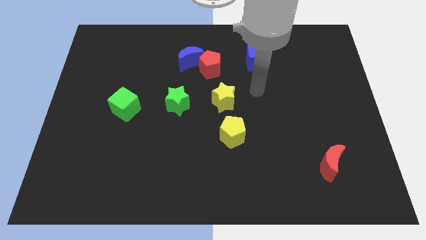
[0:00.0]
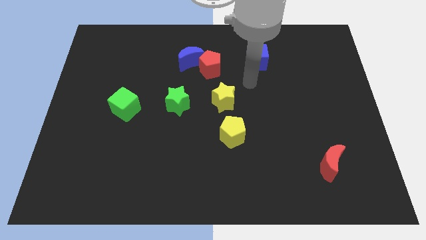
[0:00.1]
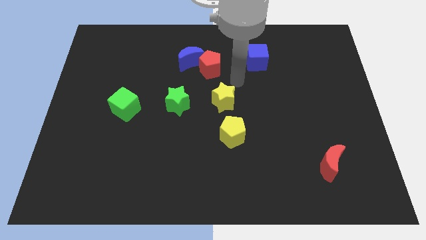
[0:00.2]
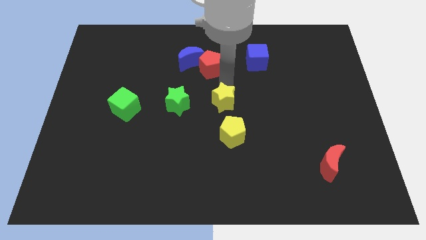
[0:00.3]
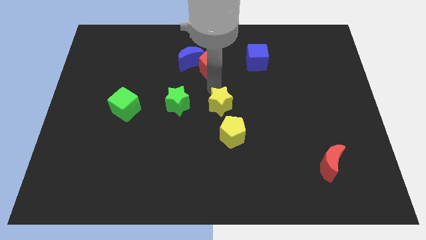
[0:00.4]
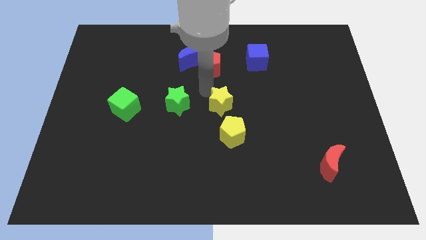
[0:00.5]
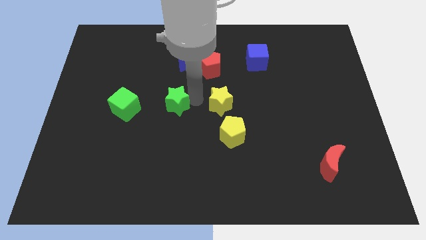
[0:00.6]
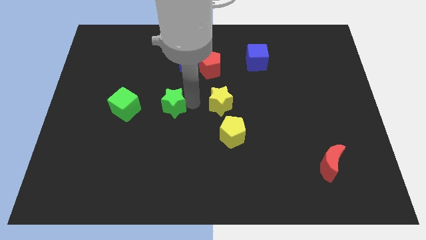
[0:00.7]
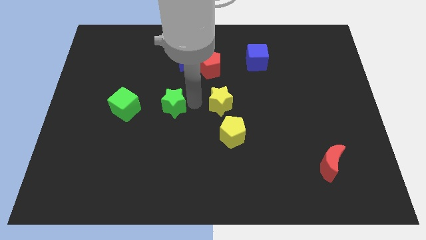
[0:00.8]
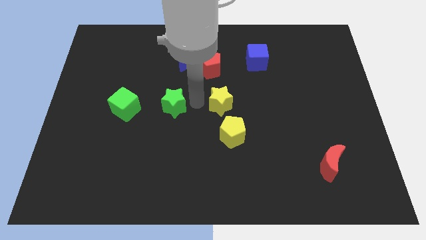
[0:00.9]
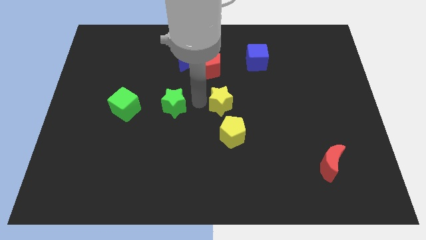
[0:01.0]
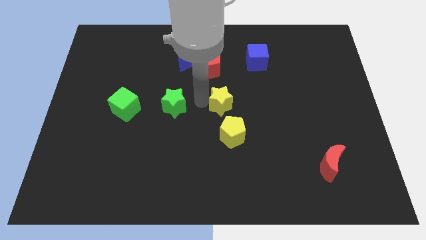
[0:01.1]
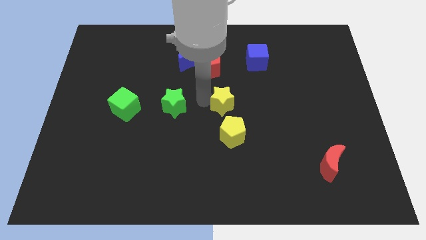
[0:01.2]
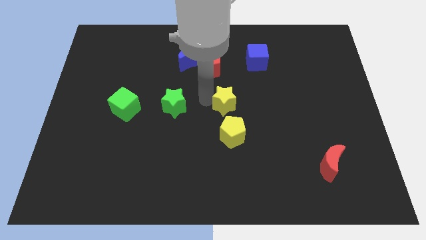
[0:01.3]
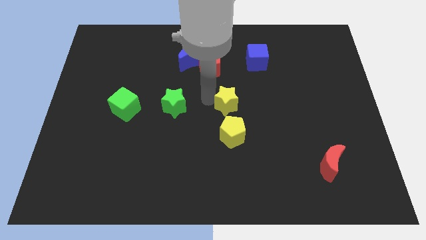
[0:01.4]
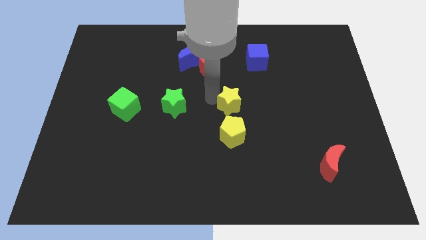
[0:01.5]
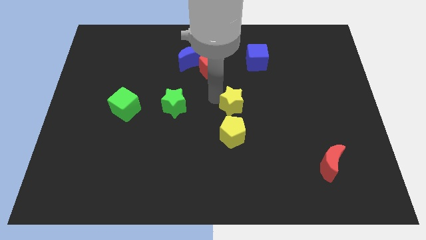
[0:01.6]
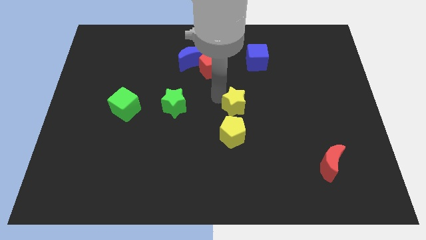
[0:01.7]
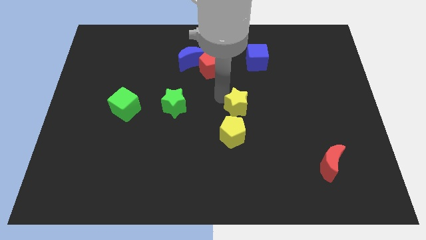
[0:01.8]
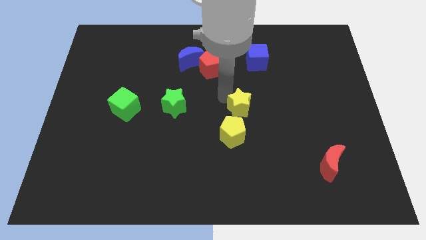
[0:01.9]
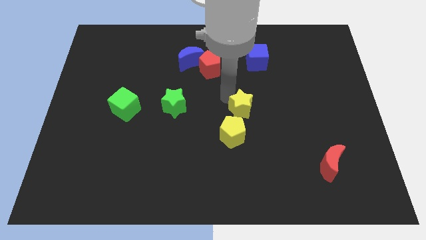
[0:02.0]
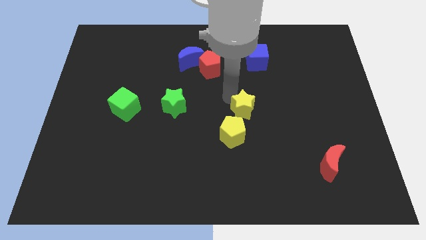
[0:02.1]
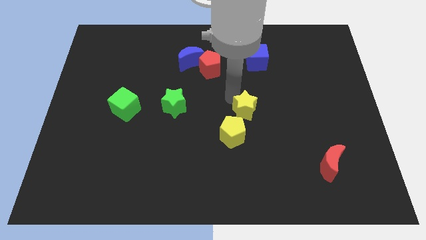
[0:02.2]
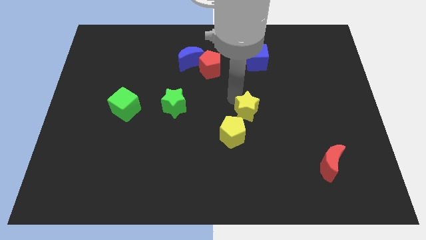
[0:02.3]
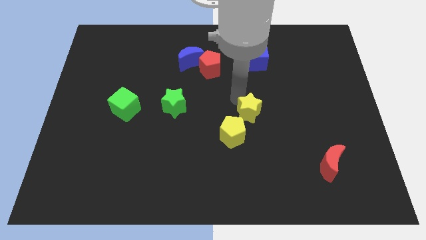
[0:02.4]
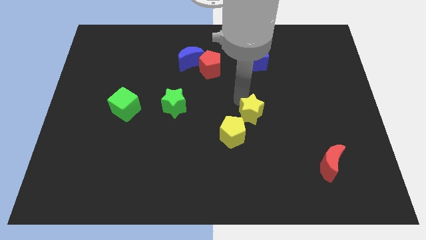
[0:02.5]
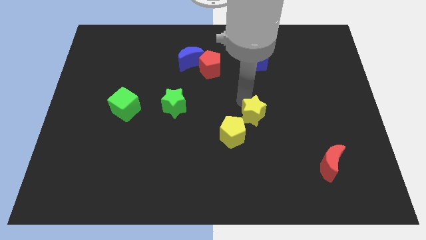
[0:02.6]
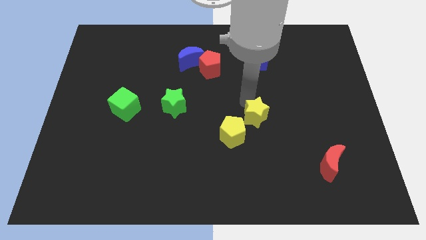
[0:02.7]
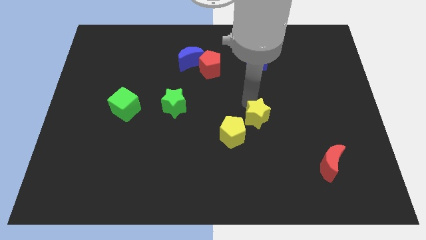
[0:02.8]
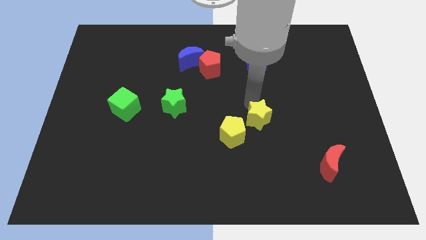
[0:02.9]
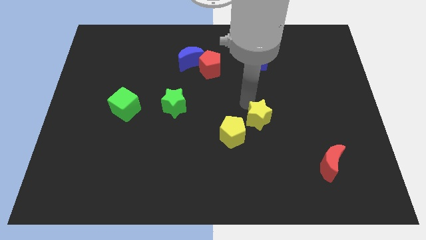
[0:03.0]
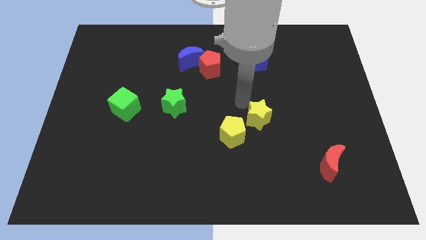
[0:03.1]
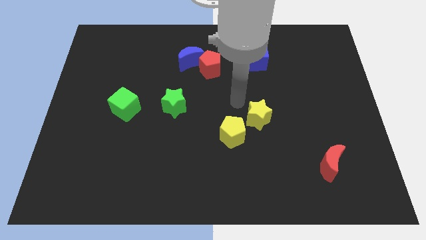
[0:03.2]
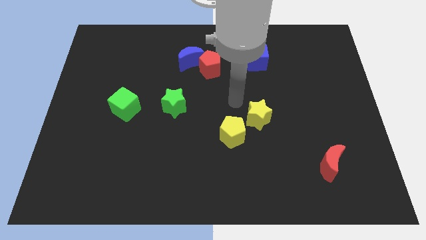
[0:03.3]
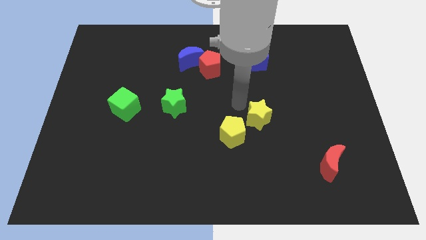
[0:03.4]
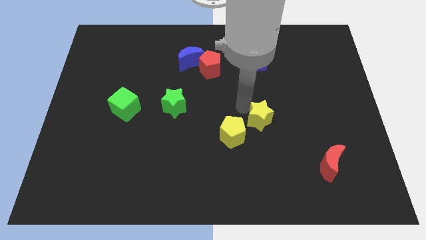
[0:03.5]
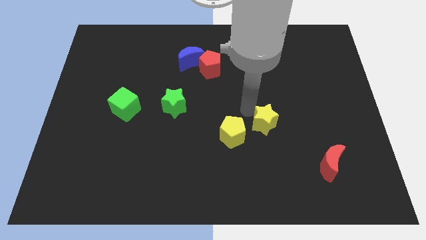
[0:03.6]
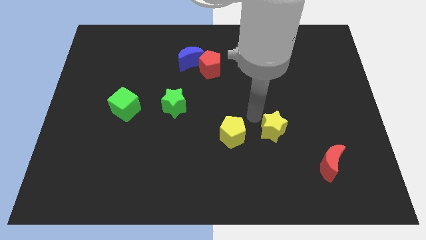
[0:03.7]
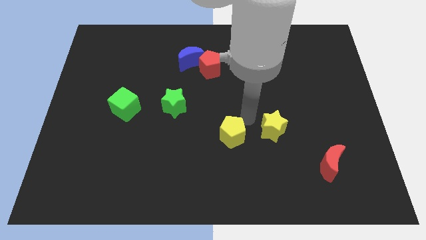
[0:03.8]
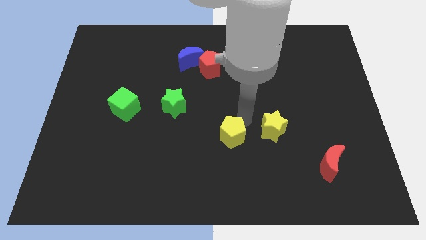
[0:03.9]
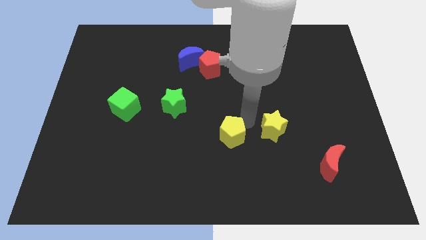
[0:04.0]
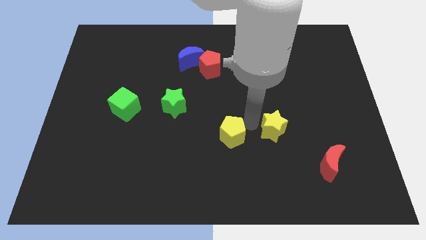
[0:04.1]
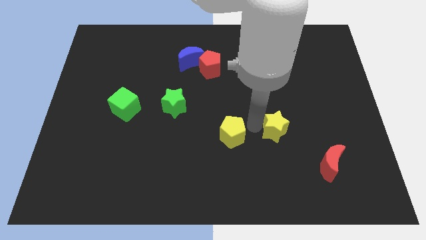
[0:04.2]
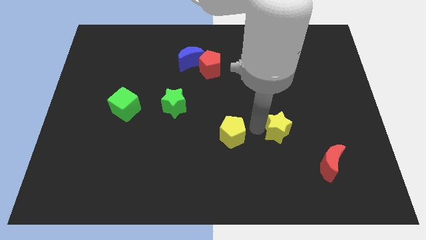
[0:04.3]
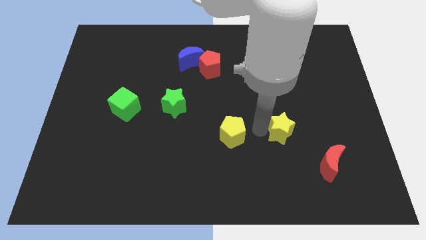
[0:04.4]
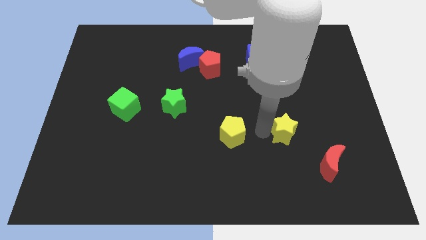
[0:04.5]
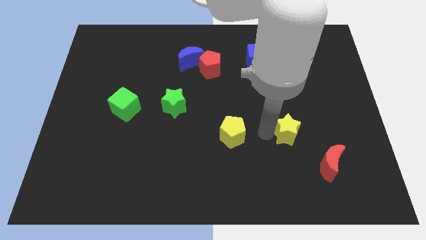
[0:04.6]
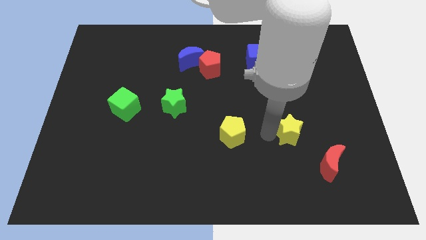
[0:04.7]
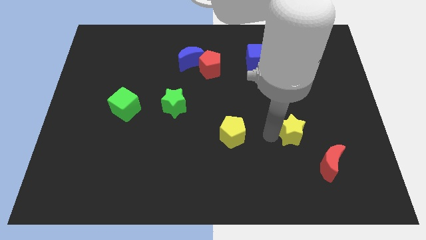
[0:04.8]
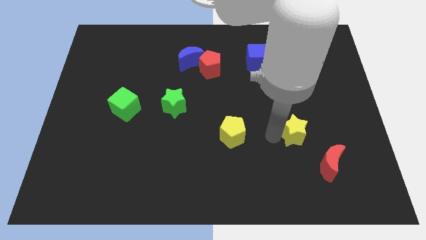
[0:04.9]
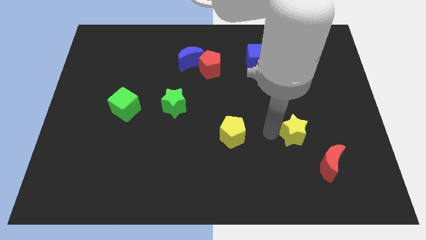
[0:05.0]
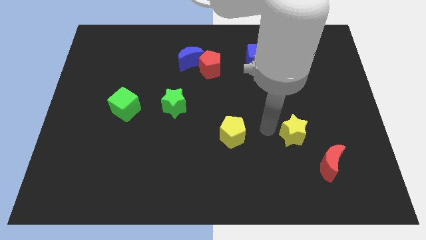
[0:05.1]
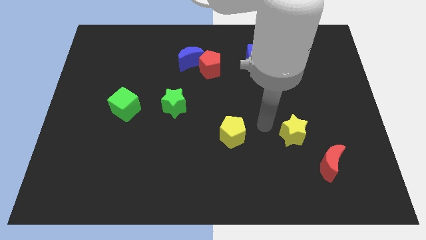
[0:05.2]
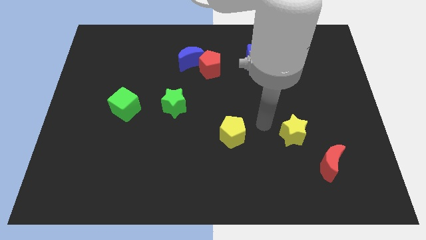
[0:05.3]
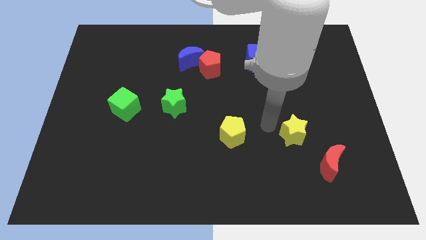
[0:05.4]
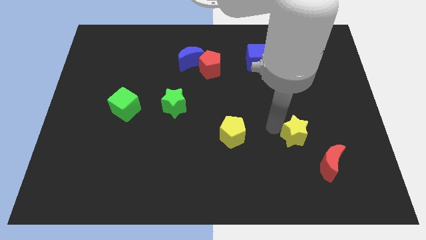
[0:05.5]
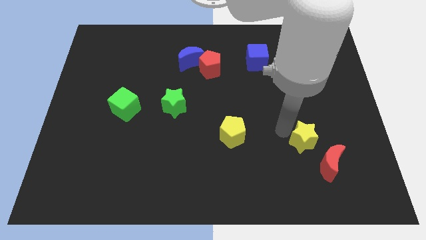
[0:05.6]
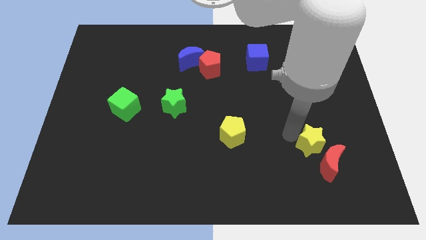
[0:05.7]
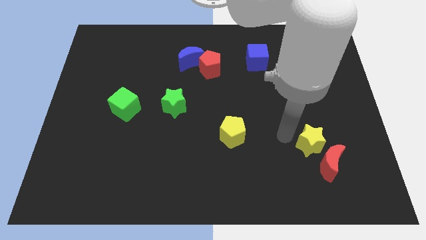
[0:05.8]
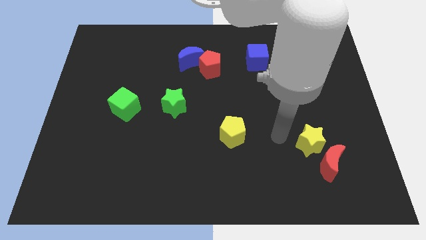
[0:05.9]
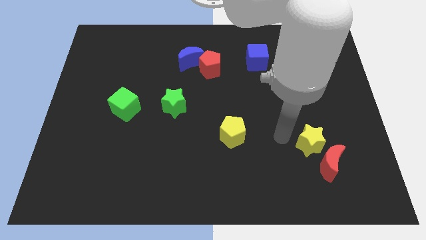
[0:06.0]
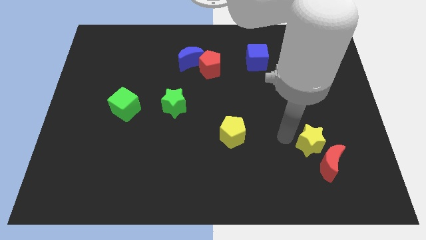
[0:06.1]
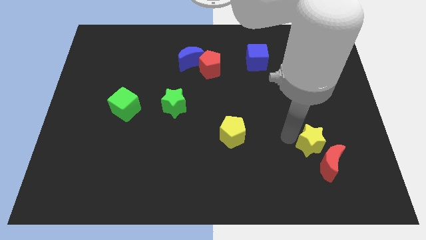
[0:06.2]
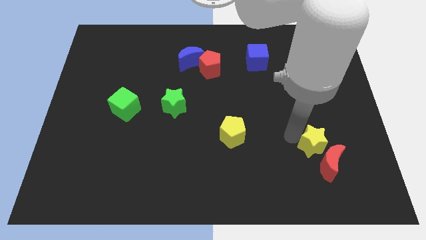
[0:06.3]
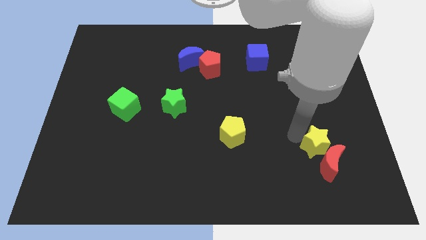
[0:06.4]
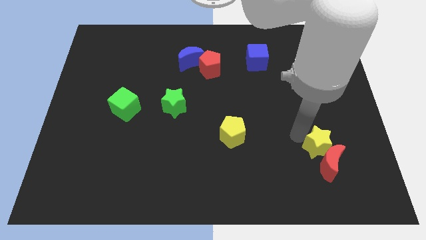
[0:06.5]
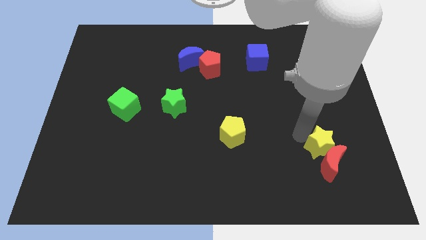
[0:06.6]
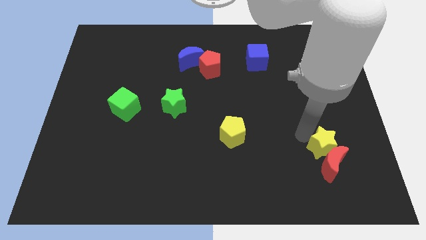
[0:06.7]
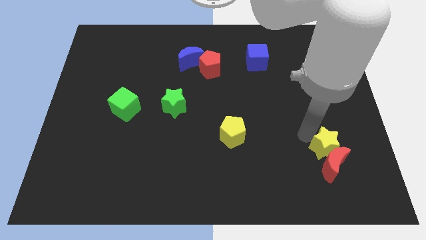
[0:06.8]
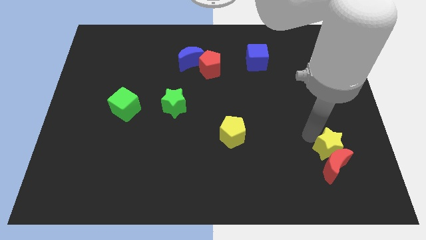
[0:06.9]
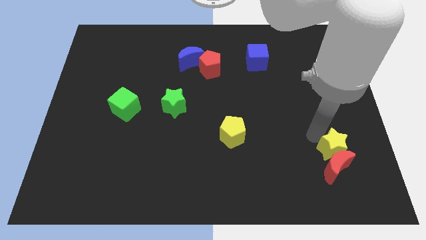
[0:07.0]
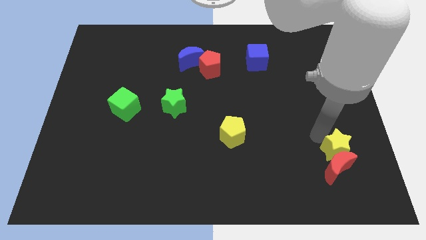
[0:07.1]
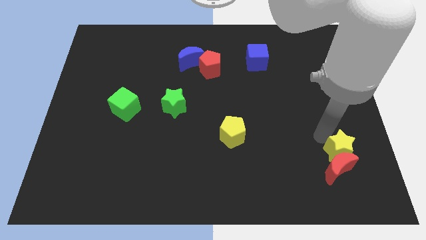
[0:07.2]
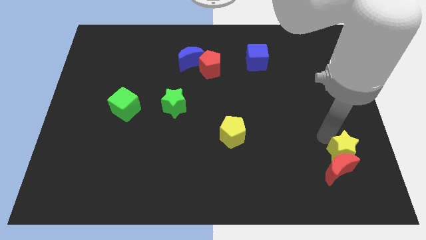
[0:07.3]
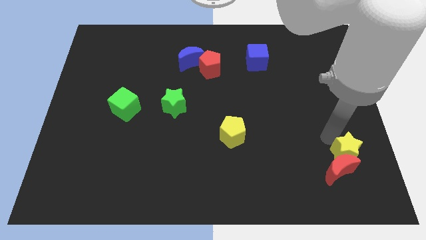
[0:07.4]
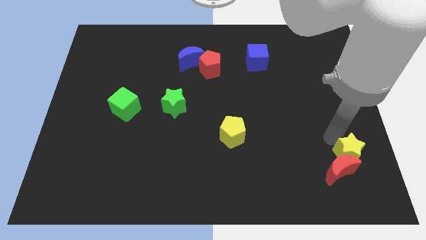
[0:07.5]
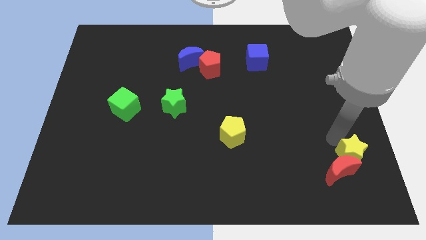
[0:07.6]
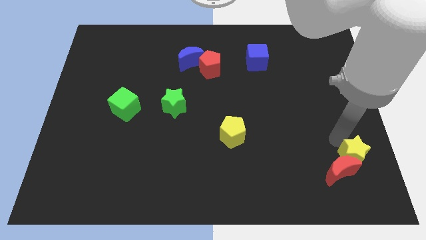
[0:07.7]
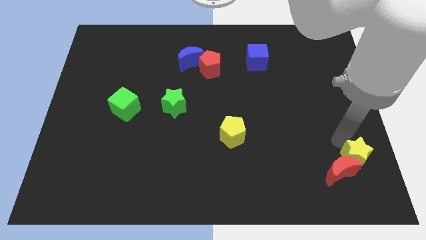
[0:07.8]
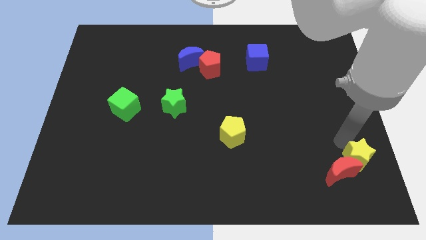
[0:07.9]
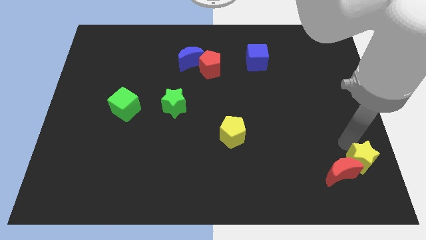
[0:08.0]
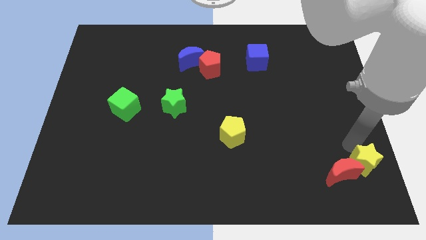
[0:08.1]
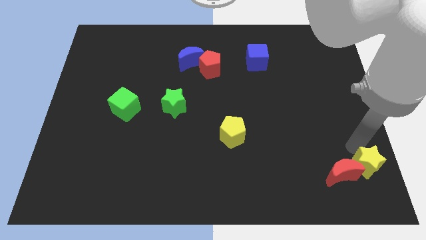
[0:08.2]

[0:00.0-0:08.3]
move the yellow star to the bottom right of the board
